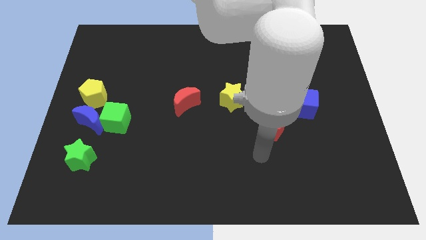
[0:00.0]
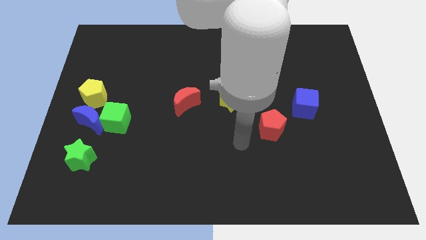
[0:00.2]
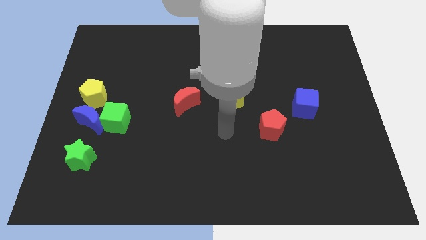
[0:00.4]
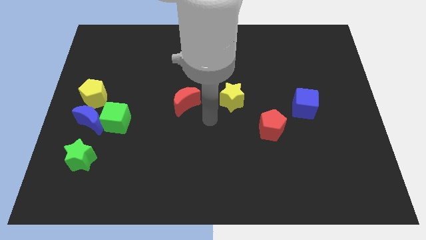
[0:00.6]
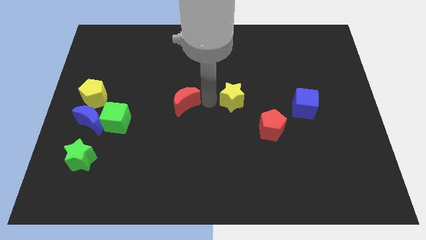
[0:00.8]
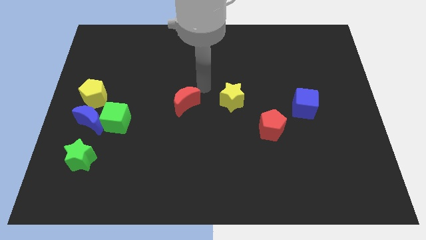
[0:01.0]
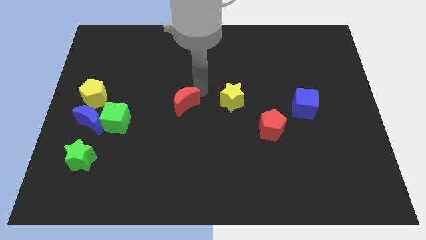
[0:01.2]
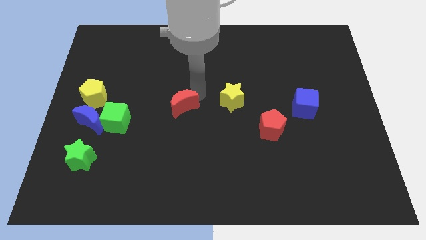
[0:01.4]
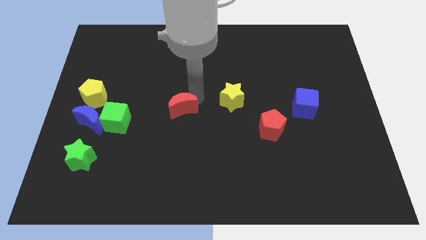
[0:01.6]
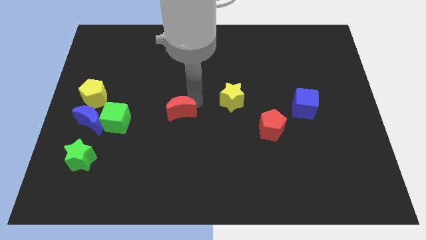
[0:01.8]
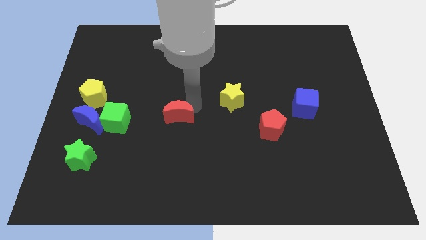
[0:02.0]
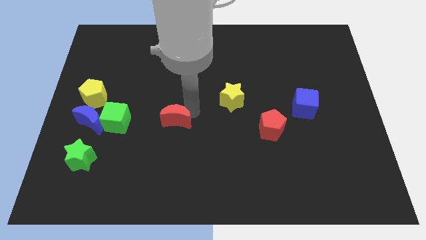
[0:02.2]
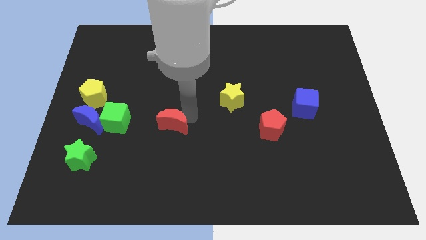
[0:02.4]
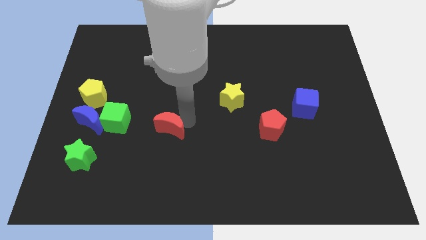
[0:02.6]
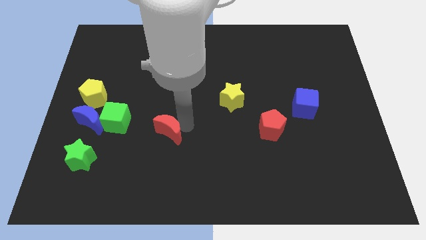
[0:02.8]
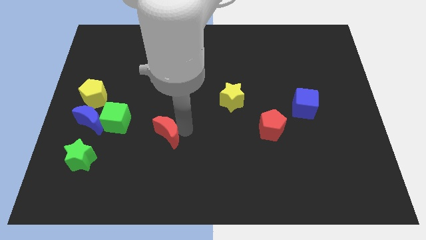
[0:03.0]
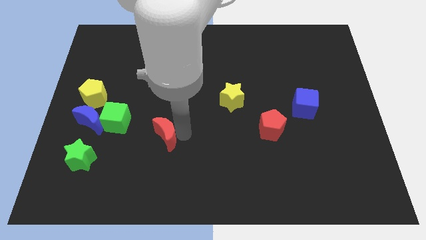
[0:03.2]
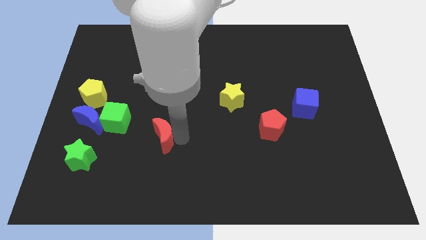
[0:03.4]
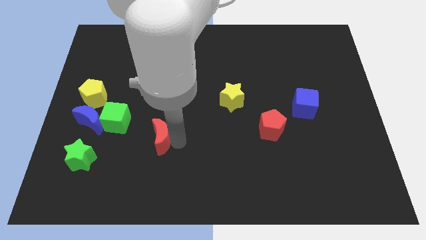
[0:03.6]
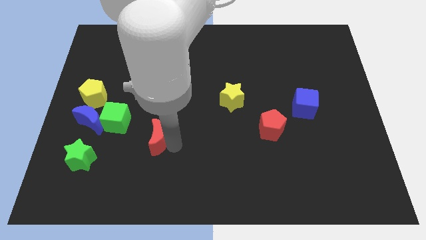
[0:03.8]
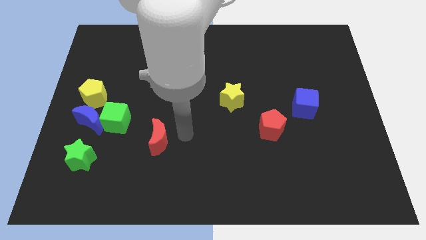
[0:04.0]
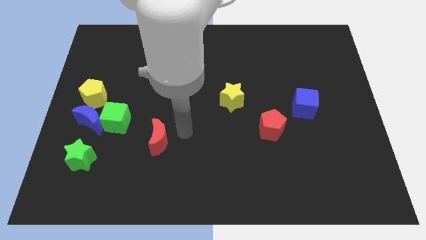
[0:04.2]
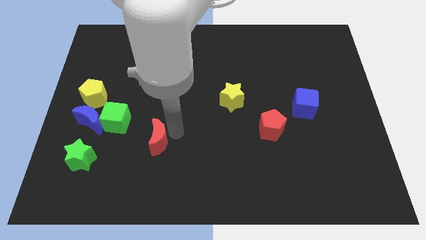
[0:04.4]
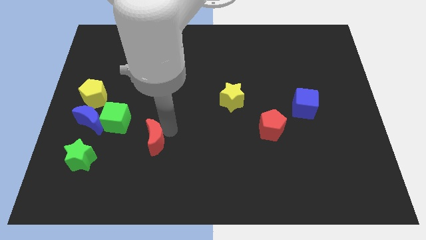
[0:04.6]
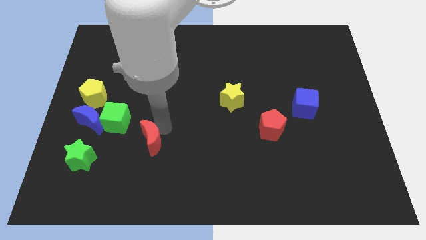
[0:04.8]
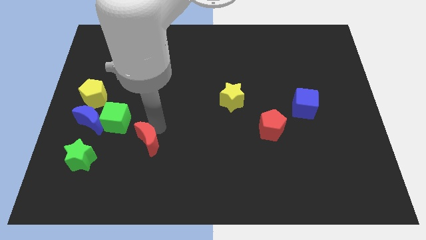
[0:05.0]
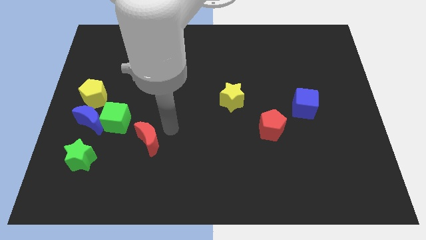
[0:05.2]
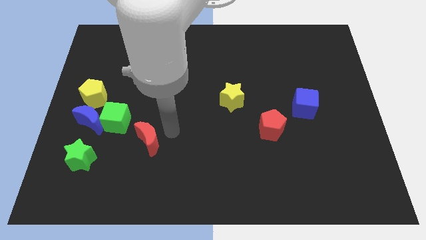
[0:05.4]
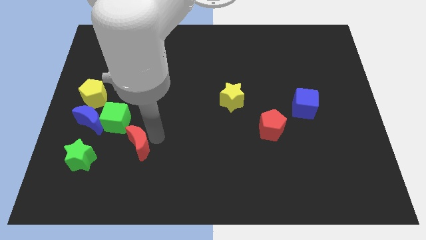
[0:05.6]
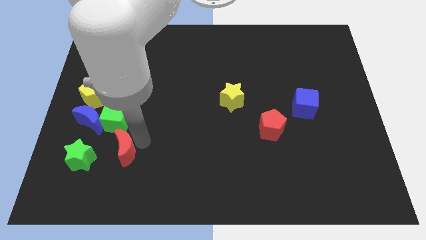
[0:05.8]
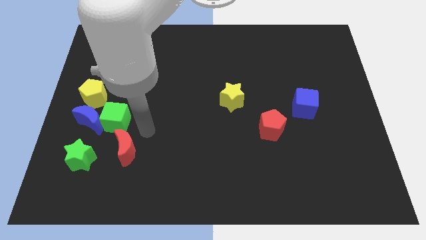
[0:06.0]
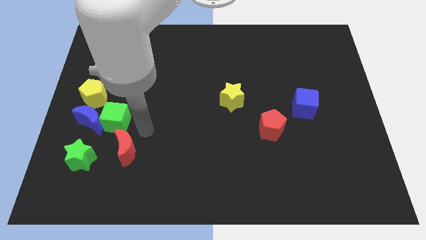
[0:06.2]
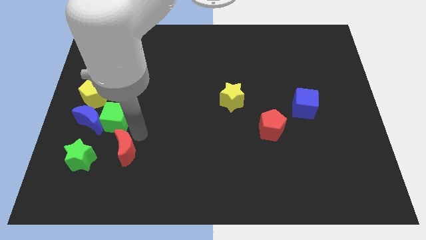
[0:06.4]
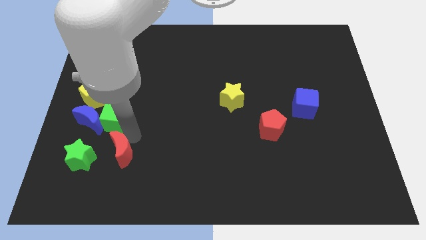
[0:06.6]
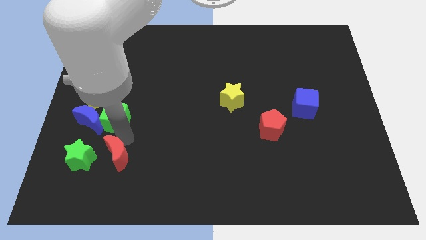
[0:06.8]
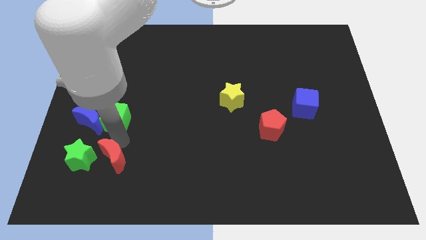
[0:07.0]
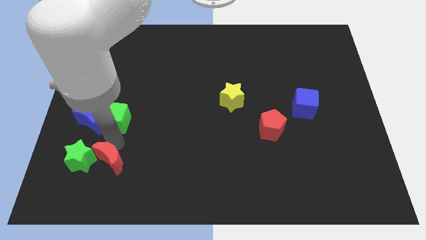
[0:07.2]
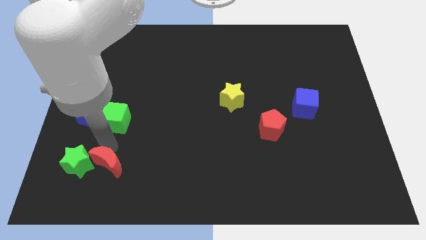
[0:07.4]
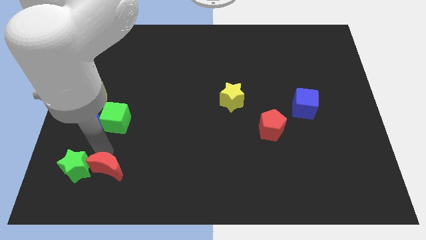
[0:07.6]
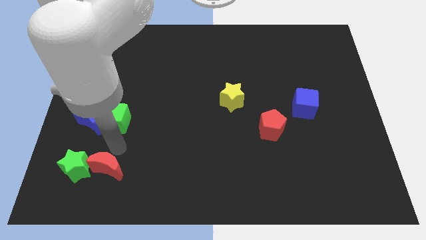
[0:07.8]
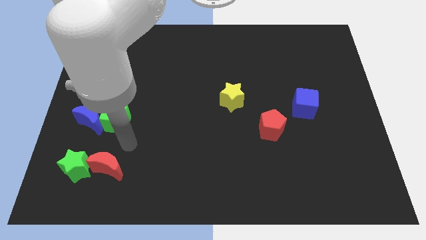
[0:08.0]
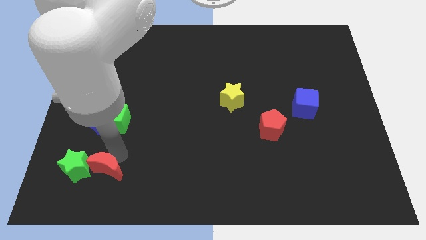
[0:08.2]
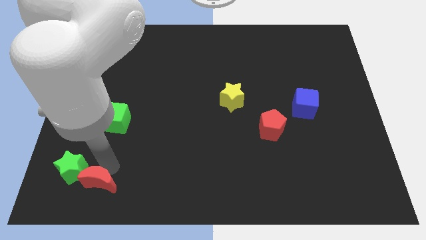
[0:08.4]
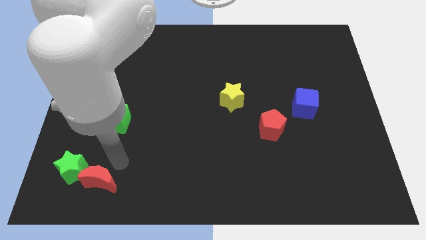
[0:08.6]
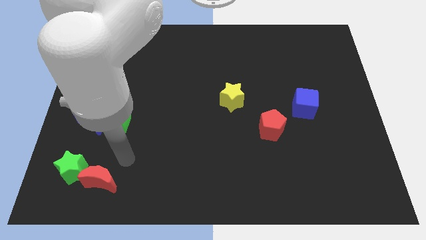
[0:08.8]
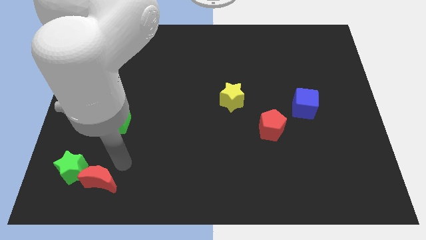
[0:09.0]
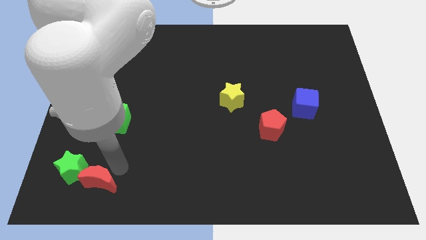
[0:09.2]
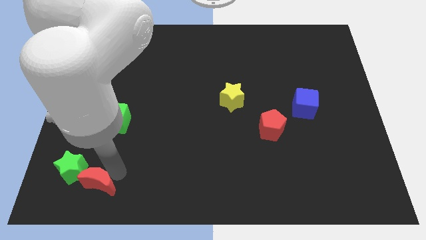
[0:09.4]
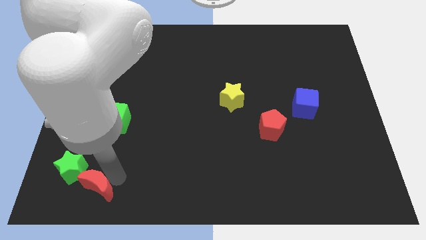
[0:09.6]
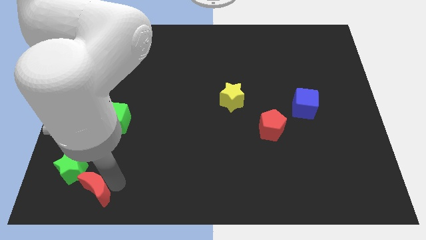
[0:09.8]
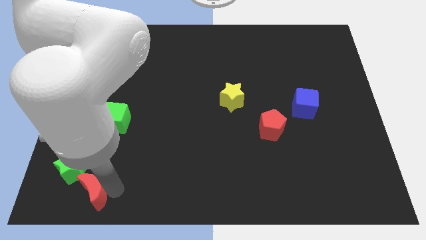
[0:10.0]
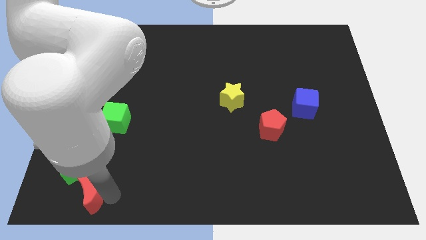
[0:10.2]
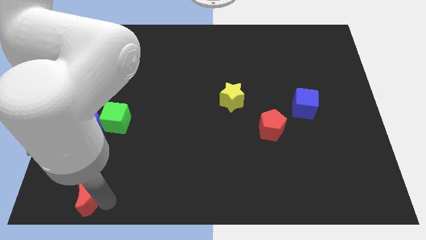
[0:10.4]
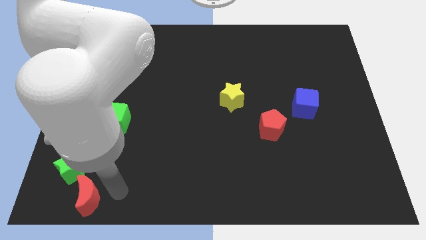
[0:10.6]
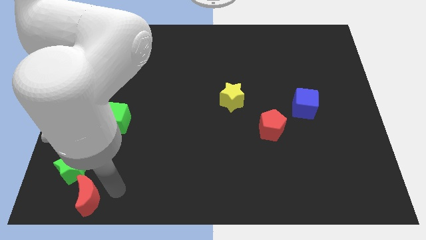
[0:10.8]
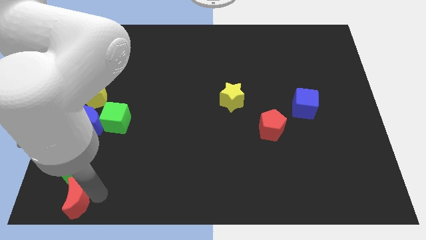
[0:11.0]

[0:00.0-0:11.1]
move the red moon to the bottom left corner
